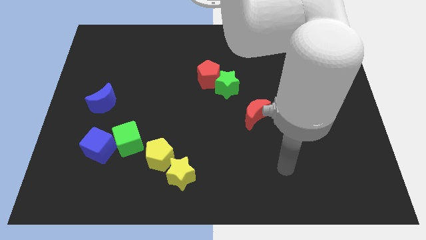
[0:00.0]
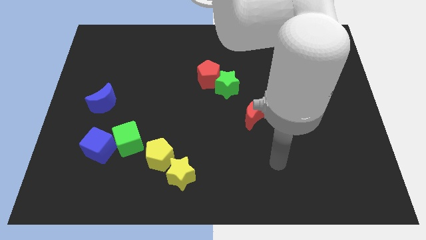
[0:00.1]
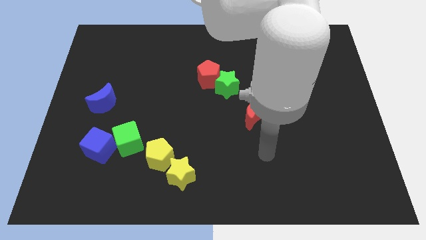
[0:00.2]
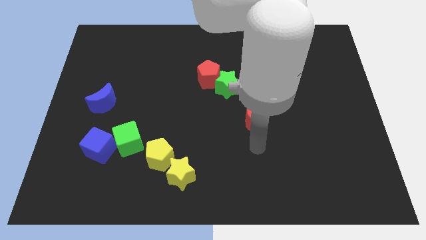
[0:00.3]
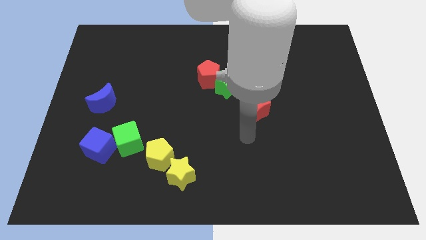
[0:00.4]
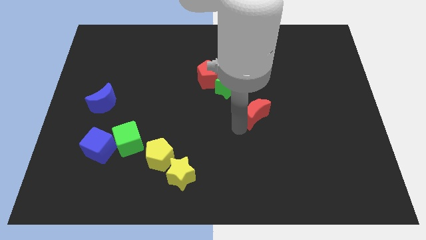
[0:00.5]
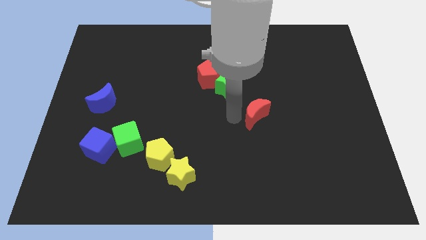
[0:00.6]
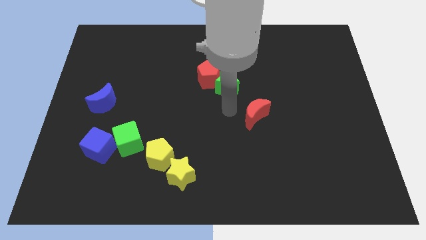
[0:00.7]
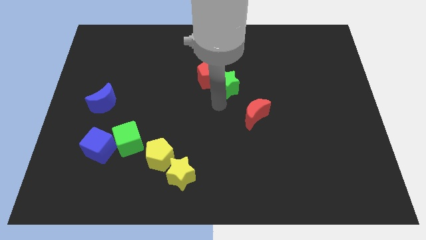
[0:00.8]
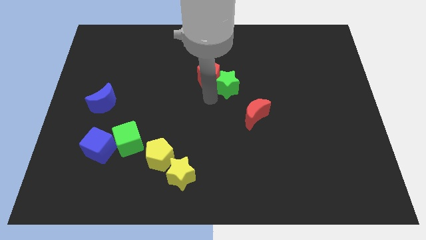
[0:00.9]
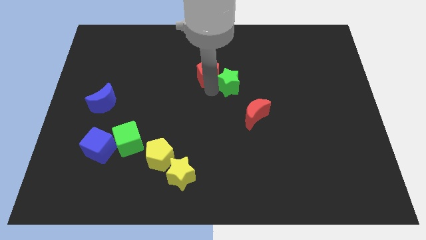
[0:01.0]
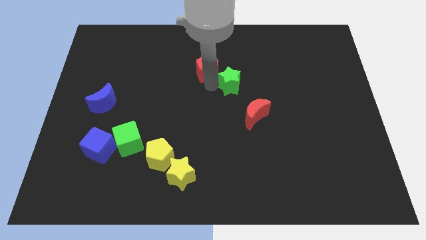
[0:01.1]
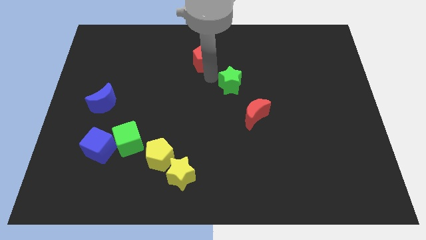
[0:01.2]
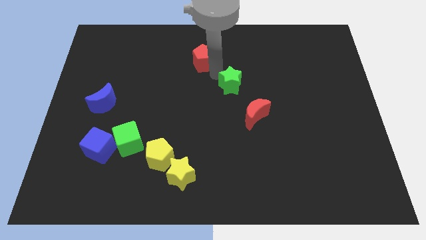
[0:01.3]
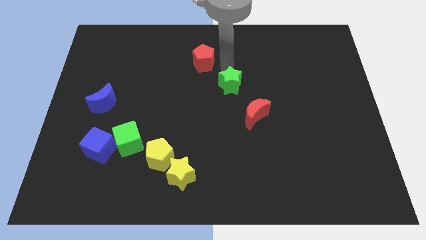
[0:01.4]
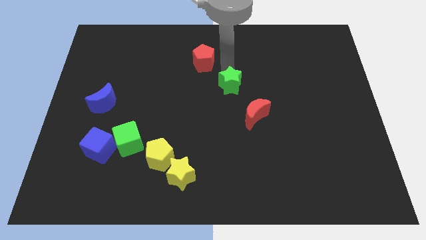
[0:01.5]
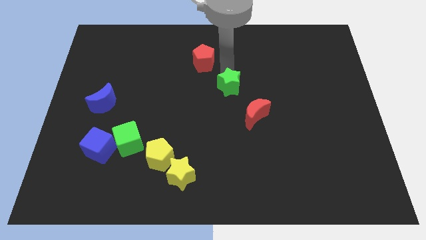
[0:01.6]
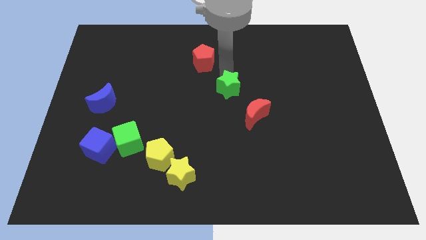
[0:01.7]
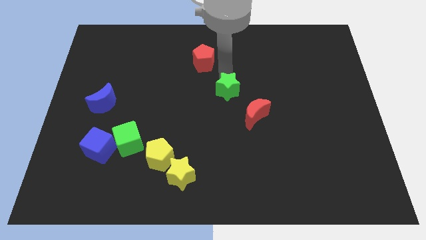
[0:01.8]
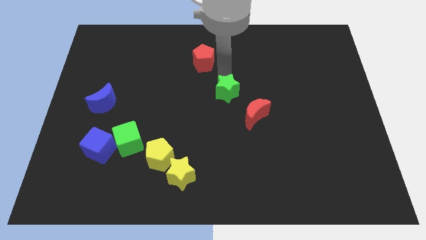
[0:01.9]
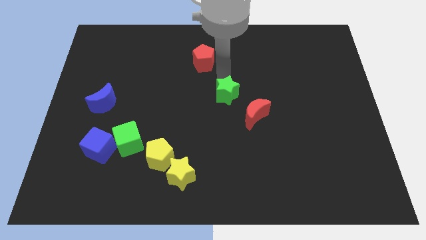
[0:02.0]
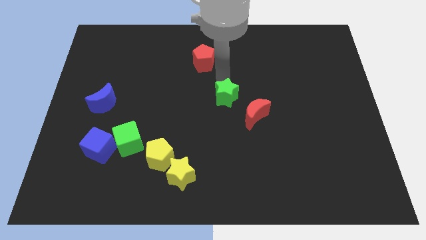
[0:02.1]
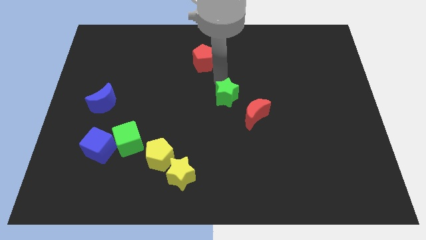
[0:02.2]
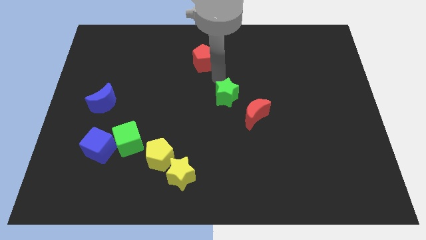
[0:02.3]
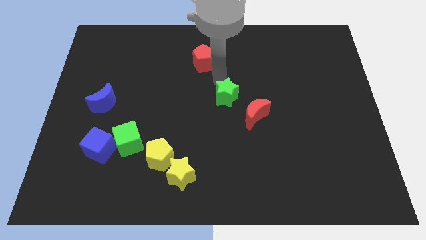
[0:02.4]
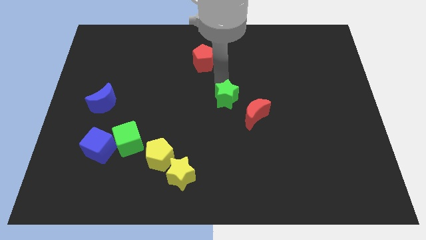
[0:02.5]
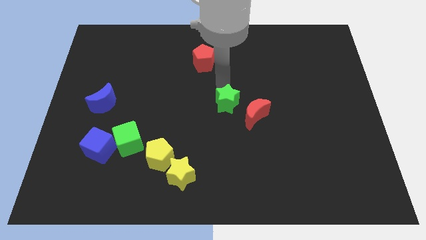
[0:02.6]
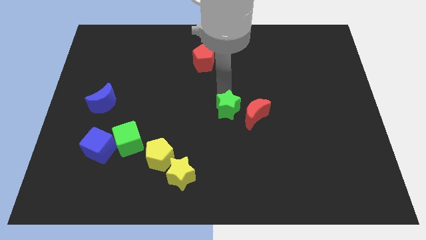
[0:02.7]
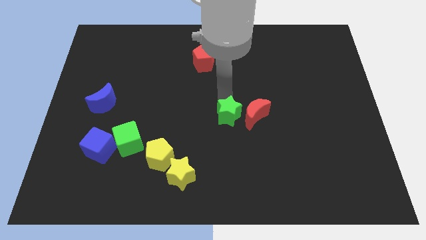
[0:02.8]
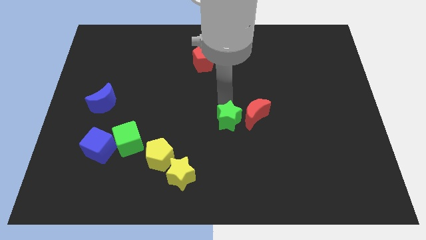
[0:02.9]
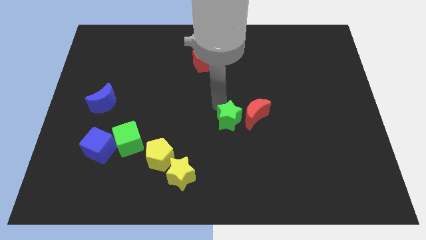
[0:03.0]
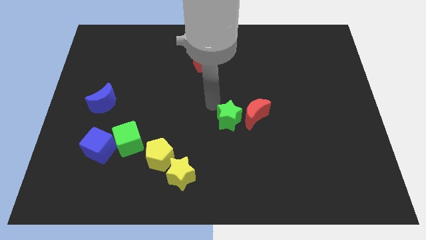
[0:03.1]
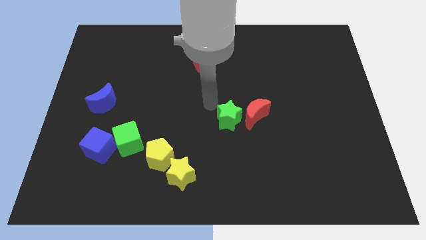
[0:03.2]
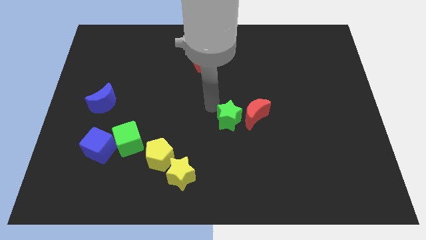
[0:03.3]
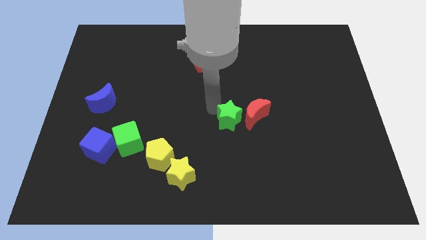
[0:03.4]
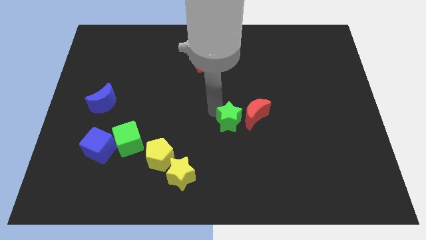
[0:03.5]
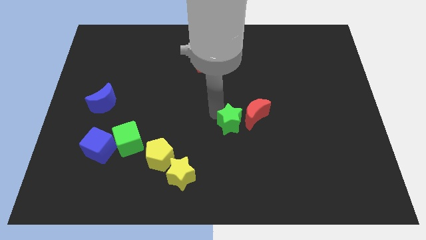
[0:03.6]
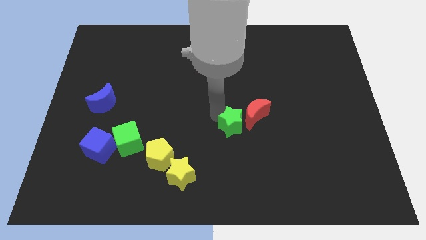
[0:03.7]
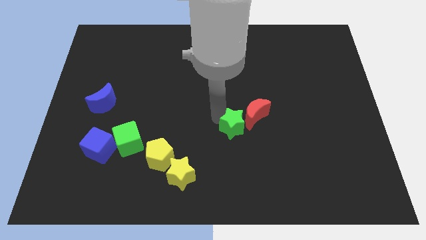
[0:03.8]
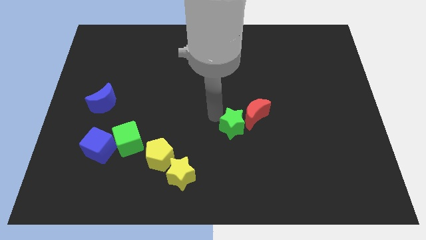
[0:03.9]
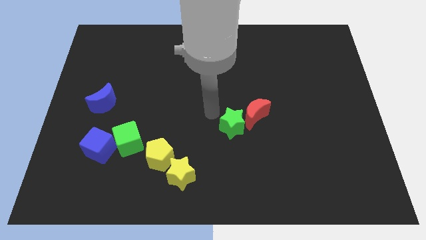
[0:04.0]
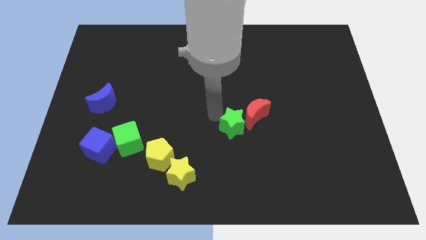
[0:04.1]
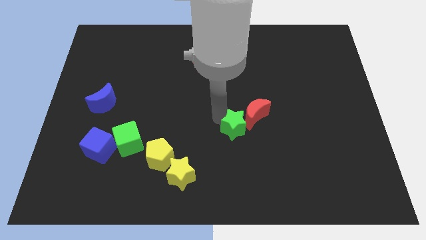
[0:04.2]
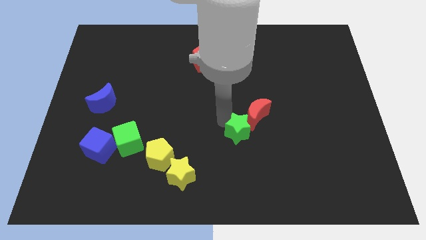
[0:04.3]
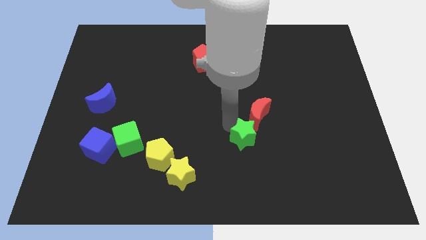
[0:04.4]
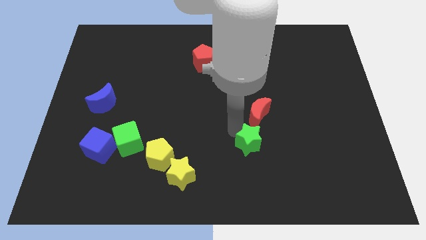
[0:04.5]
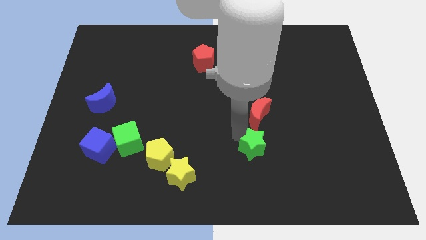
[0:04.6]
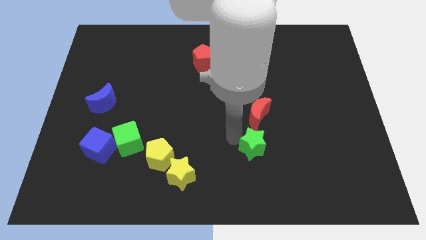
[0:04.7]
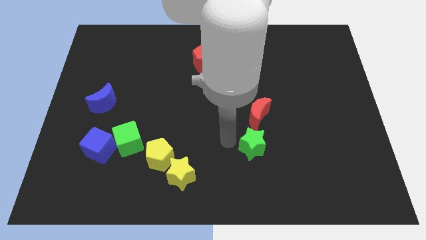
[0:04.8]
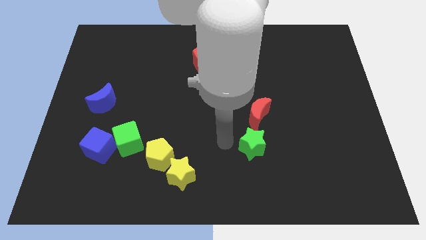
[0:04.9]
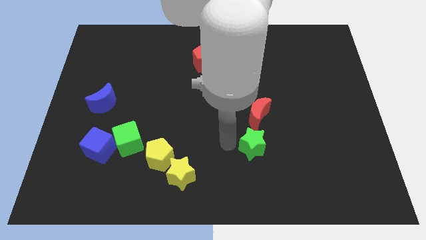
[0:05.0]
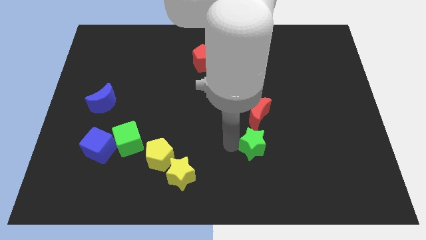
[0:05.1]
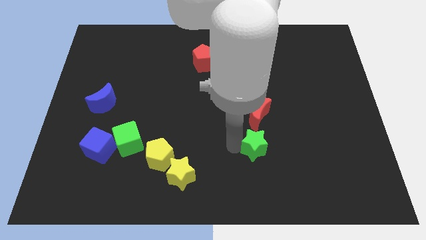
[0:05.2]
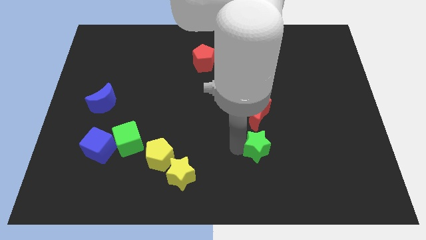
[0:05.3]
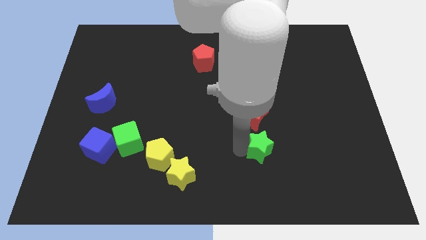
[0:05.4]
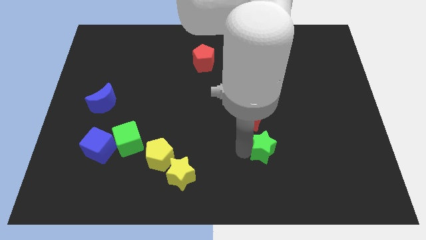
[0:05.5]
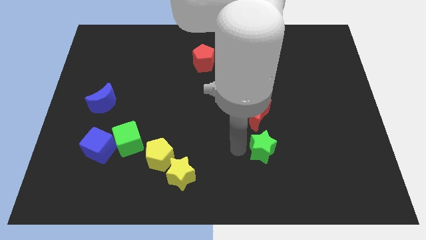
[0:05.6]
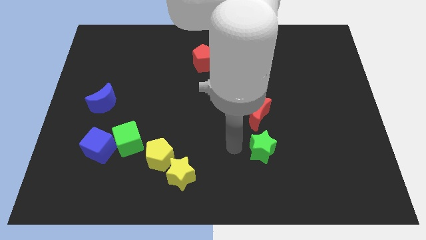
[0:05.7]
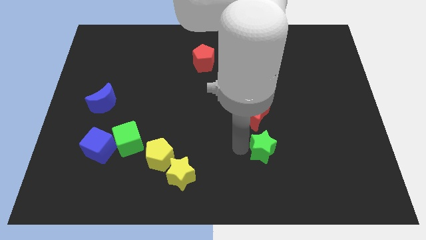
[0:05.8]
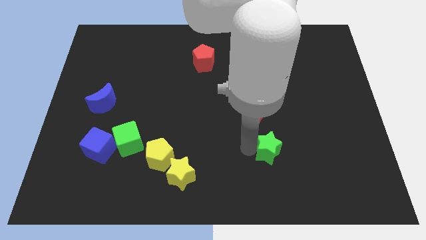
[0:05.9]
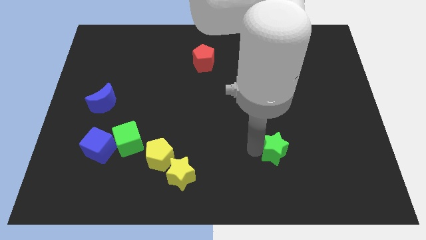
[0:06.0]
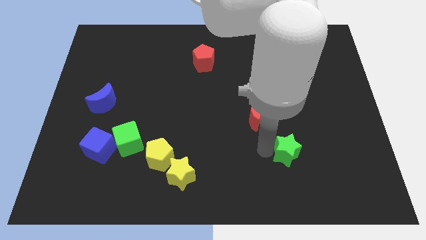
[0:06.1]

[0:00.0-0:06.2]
push the green star downwards and then to the right

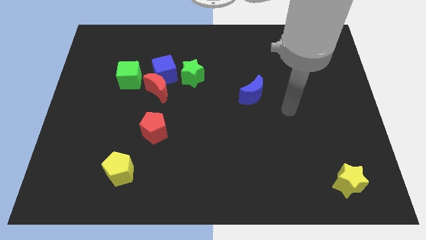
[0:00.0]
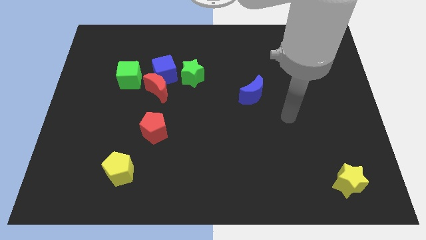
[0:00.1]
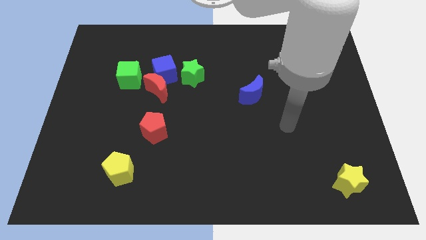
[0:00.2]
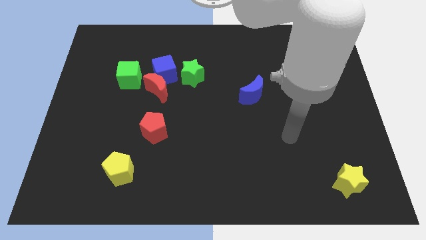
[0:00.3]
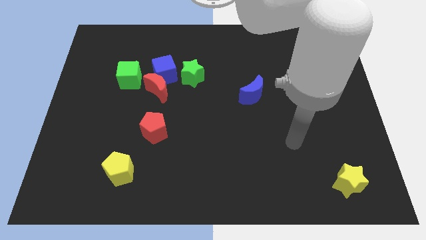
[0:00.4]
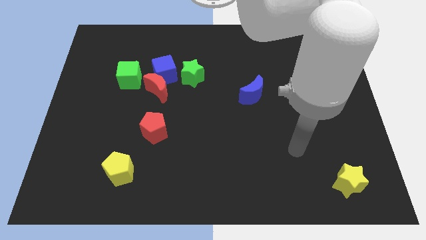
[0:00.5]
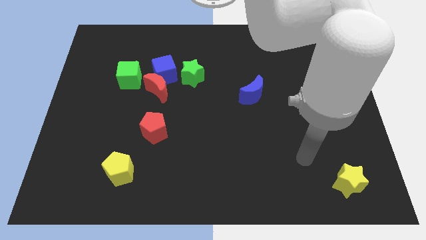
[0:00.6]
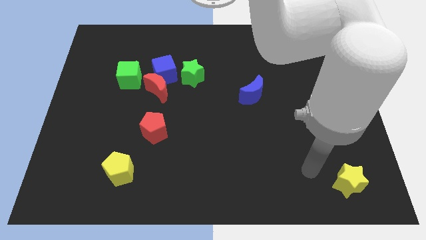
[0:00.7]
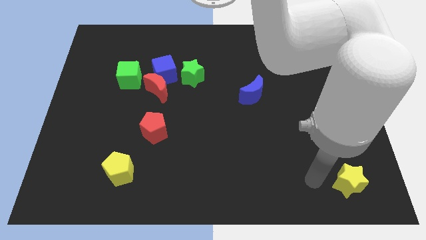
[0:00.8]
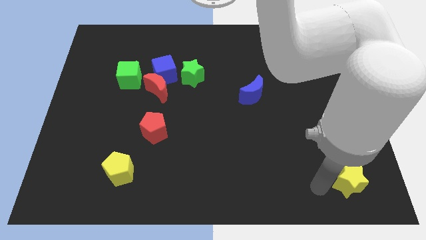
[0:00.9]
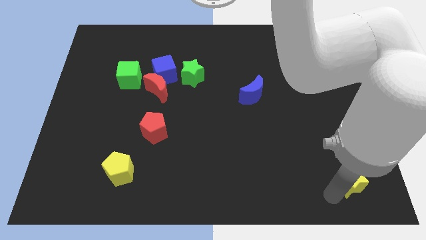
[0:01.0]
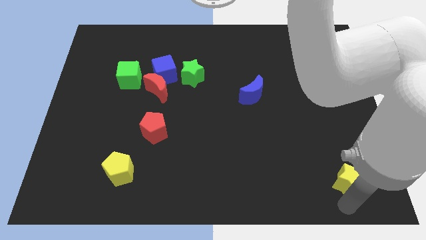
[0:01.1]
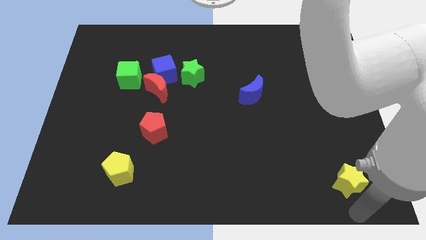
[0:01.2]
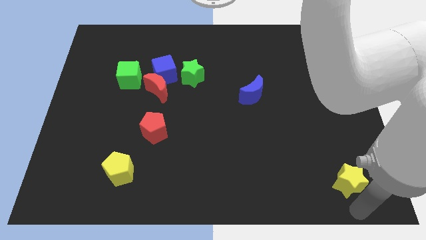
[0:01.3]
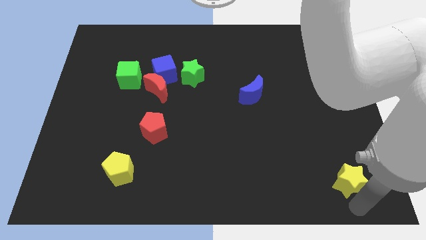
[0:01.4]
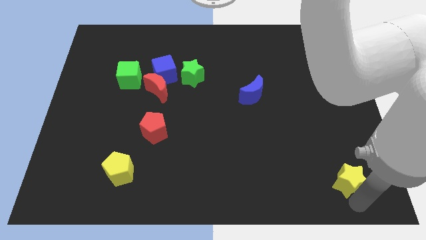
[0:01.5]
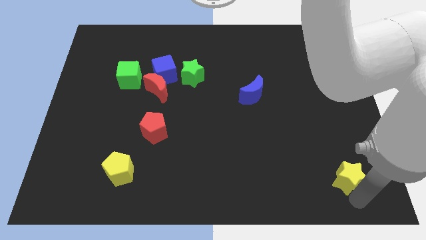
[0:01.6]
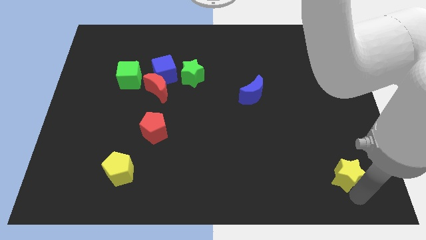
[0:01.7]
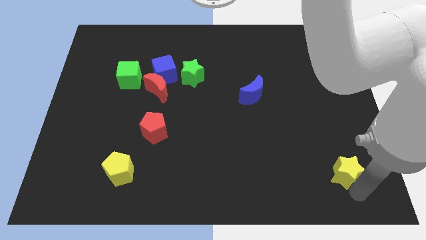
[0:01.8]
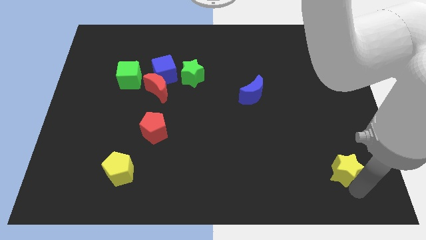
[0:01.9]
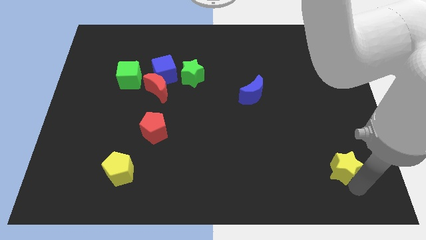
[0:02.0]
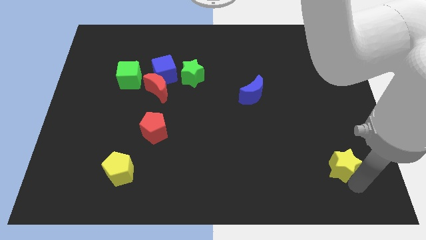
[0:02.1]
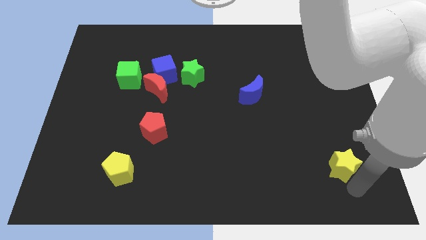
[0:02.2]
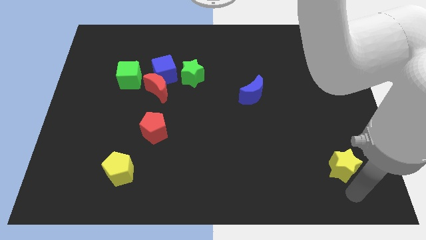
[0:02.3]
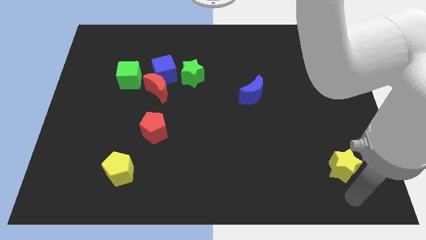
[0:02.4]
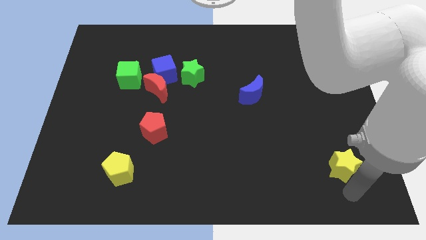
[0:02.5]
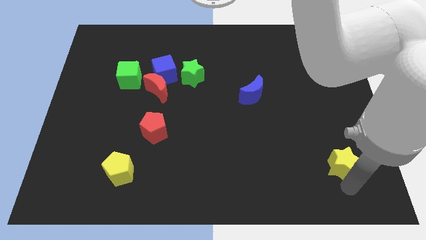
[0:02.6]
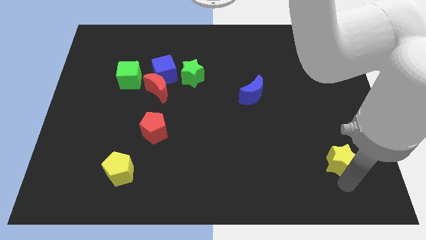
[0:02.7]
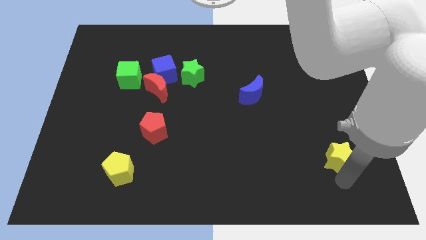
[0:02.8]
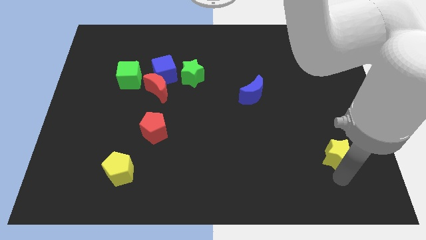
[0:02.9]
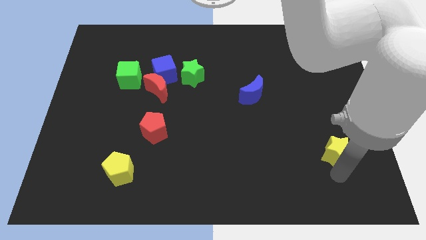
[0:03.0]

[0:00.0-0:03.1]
slide the yellow star upwards a little bit
